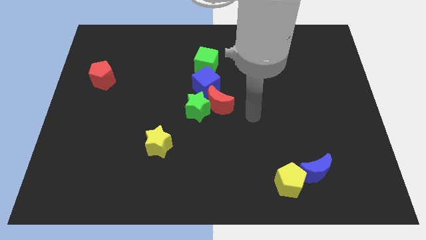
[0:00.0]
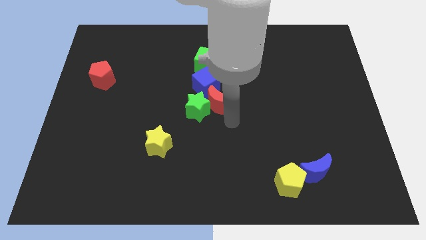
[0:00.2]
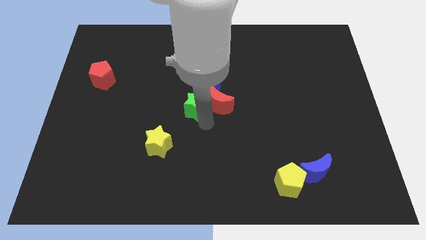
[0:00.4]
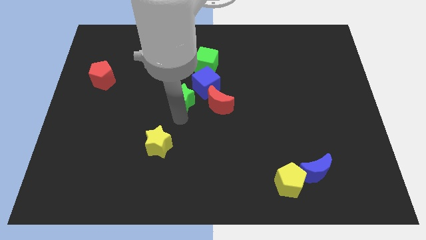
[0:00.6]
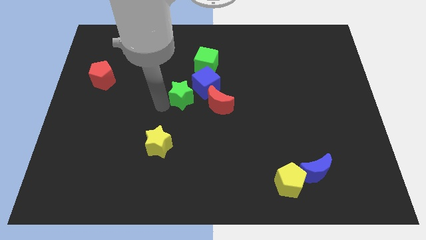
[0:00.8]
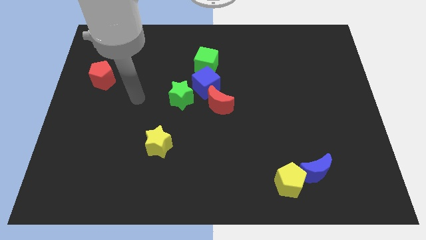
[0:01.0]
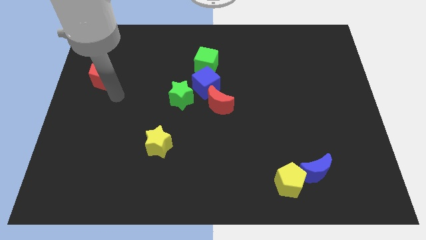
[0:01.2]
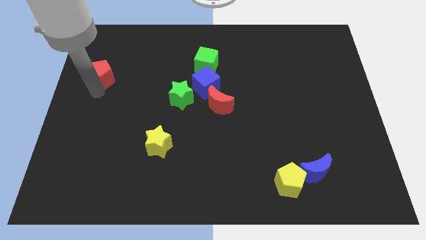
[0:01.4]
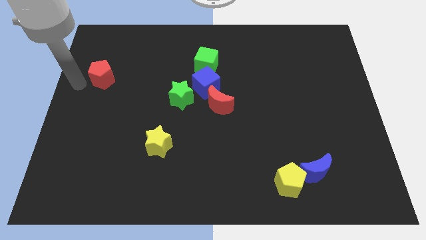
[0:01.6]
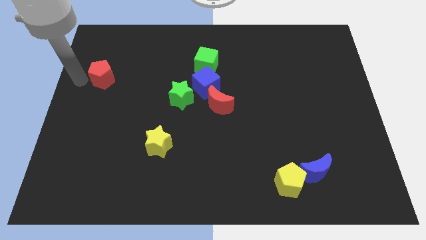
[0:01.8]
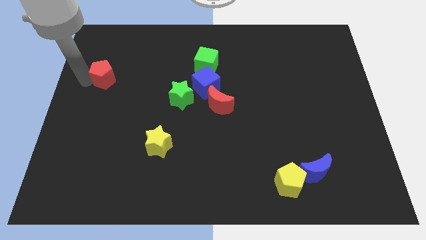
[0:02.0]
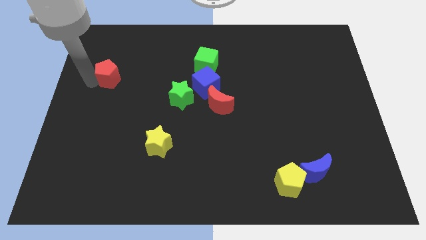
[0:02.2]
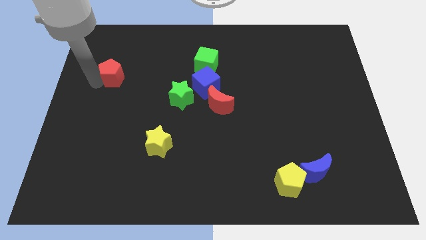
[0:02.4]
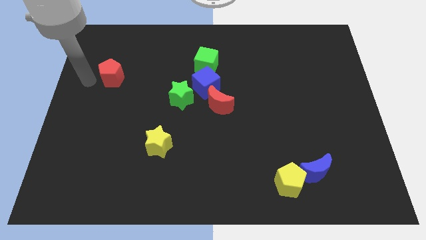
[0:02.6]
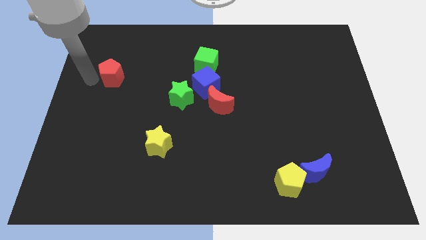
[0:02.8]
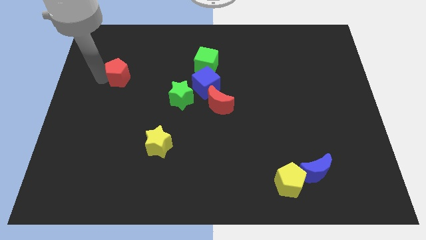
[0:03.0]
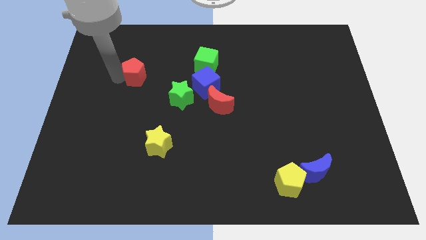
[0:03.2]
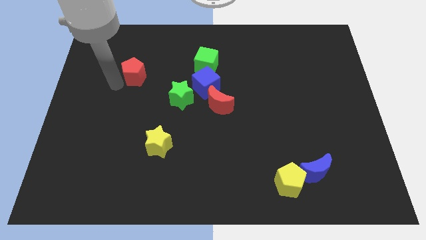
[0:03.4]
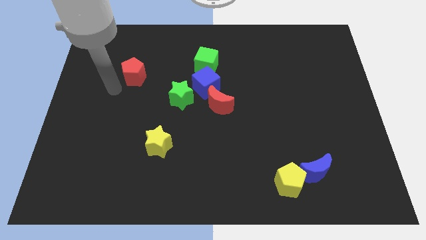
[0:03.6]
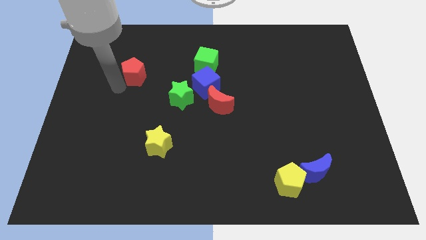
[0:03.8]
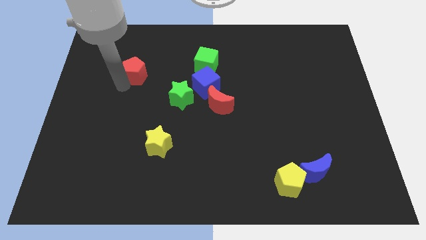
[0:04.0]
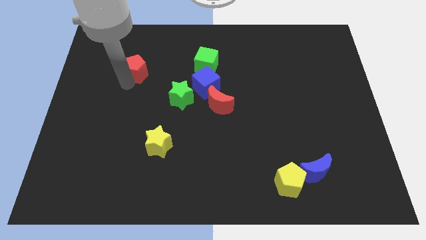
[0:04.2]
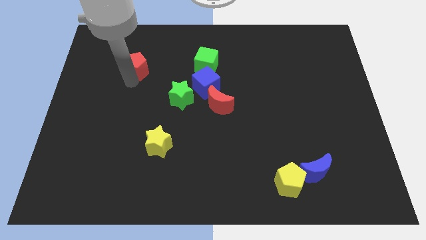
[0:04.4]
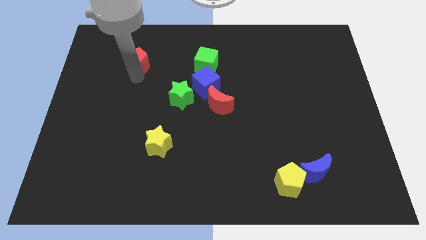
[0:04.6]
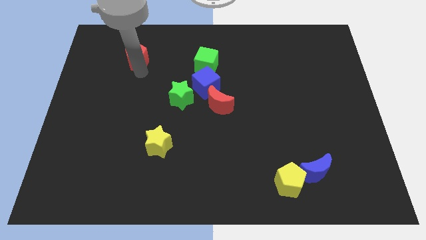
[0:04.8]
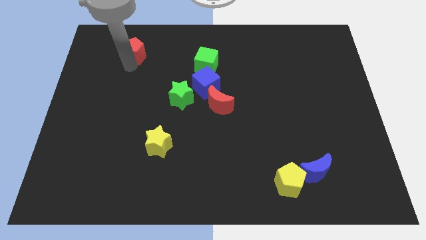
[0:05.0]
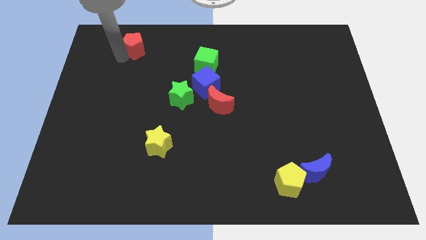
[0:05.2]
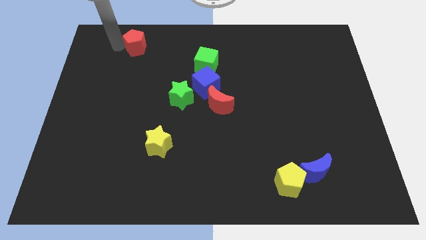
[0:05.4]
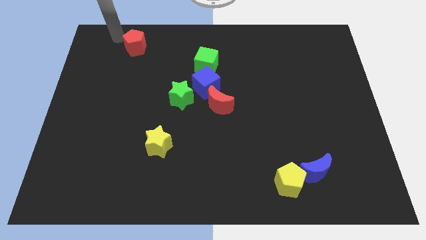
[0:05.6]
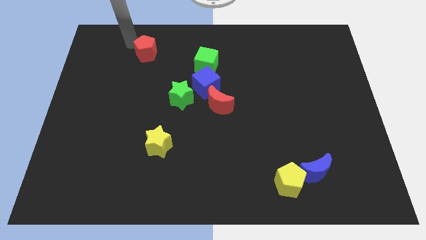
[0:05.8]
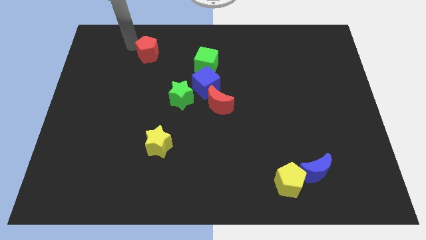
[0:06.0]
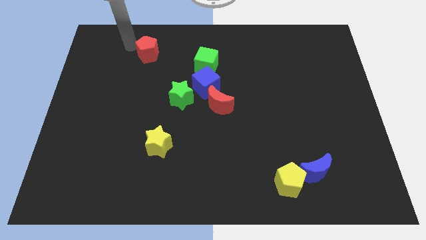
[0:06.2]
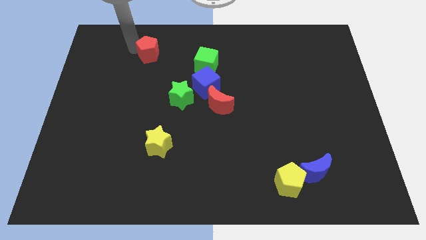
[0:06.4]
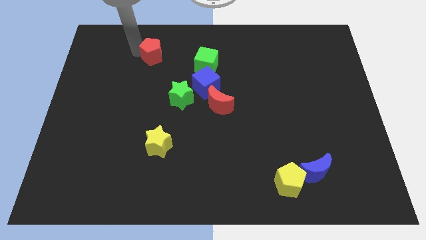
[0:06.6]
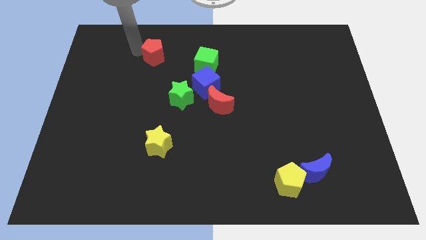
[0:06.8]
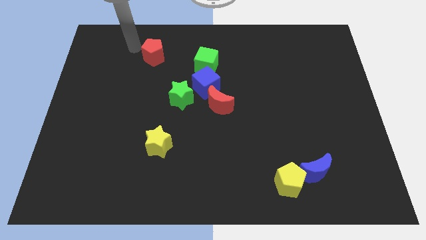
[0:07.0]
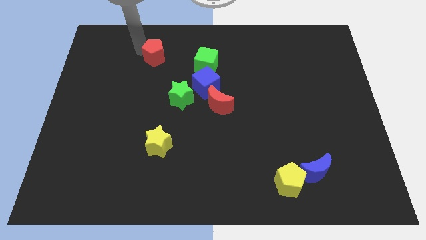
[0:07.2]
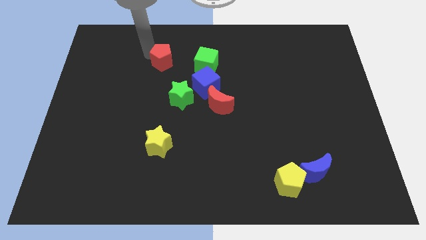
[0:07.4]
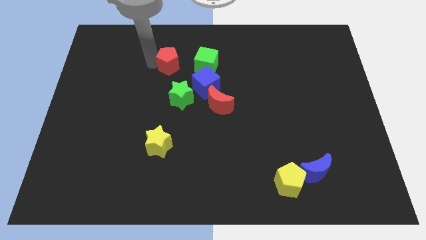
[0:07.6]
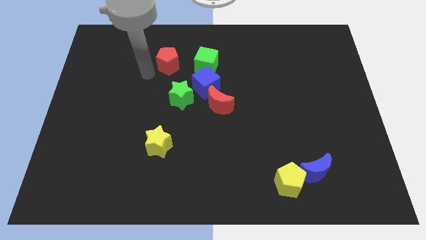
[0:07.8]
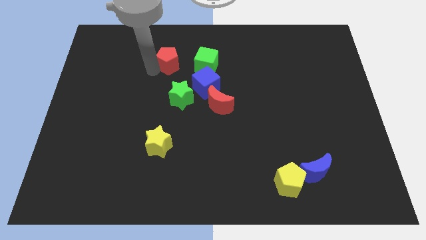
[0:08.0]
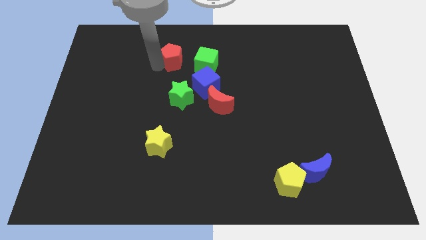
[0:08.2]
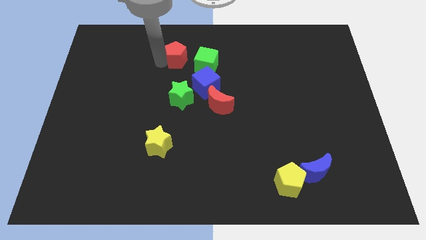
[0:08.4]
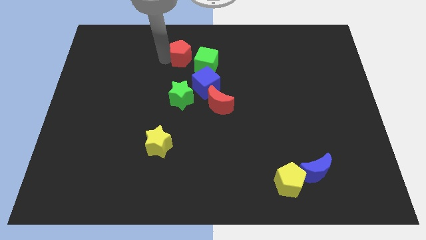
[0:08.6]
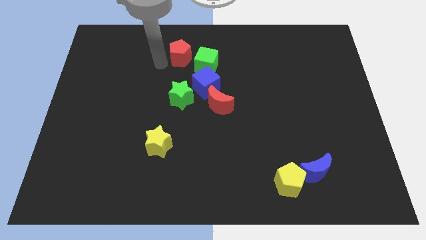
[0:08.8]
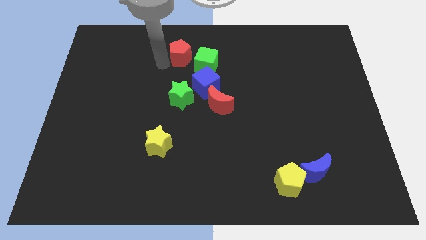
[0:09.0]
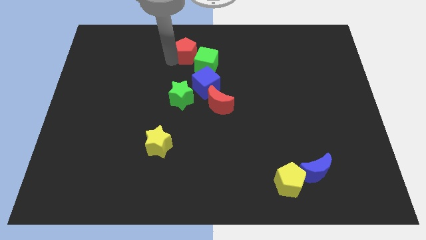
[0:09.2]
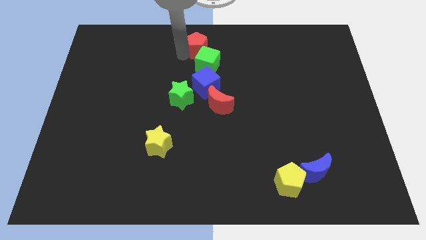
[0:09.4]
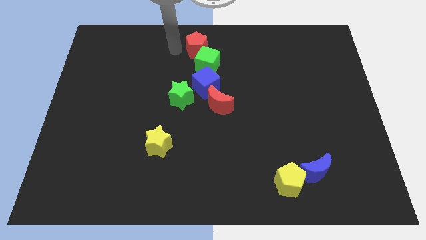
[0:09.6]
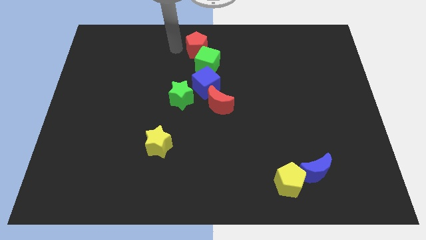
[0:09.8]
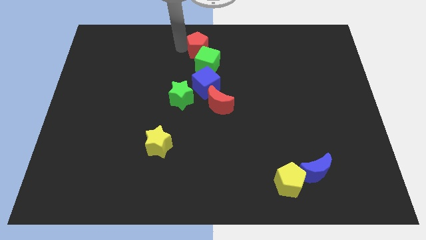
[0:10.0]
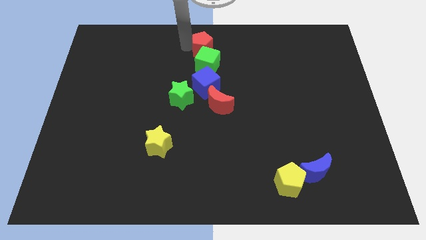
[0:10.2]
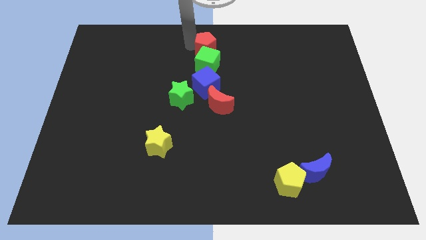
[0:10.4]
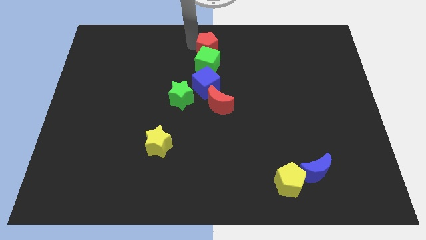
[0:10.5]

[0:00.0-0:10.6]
slide the red pentagon right

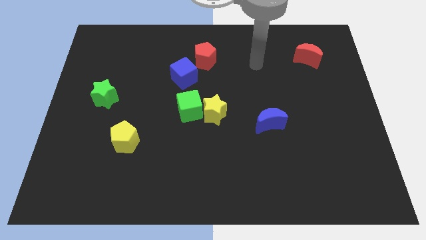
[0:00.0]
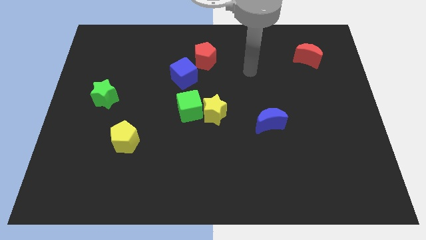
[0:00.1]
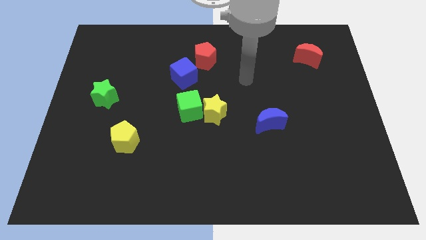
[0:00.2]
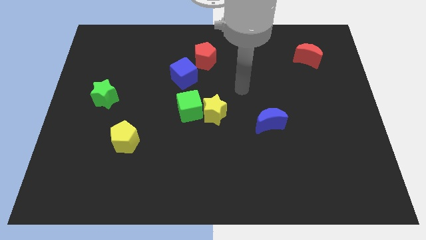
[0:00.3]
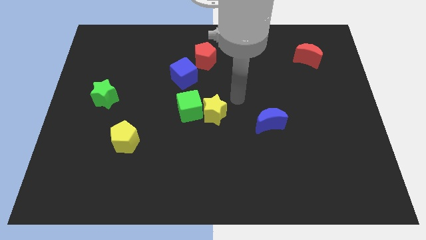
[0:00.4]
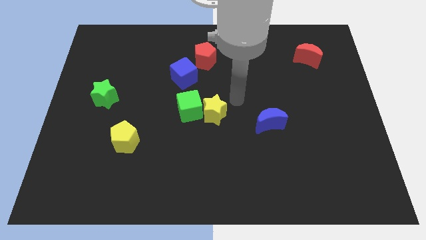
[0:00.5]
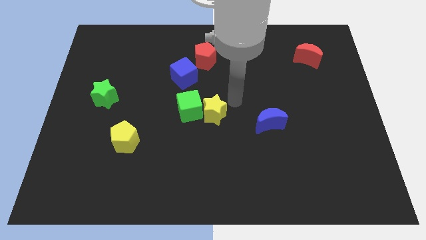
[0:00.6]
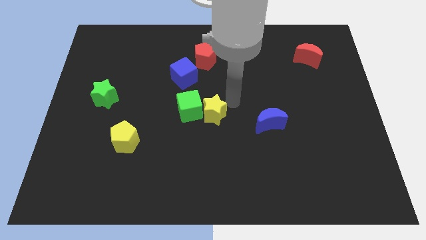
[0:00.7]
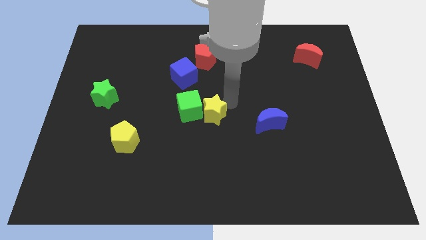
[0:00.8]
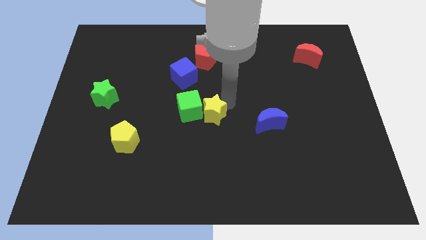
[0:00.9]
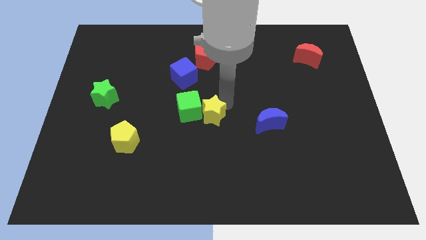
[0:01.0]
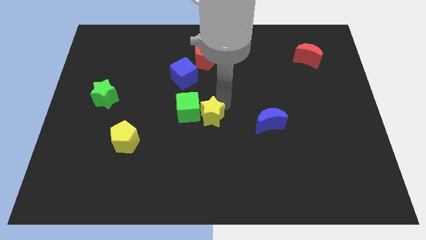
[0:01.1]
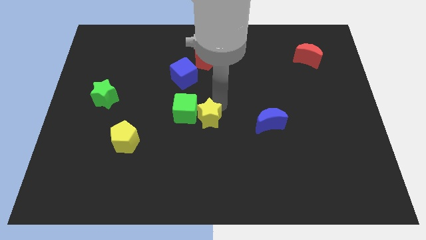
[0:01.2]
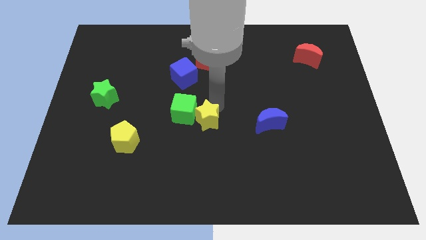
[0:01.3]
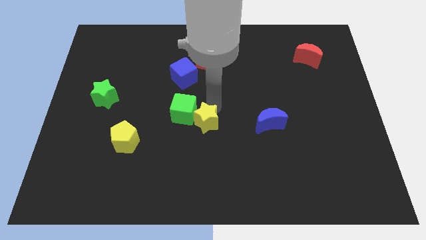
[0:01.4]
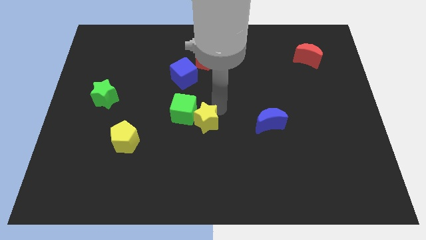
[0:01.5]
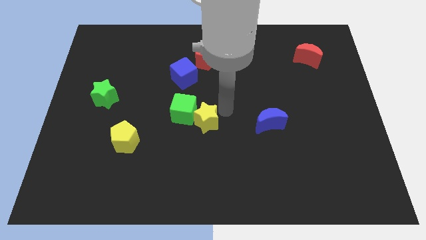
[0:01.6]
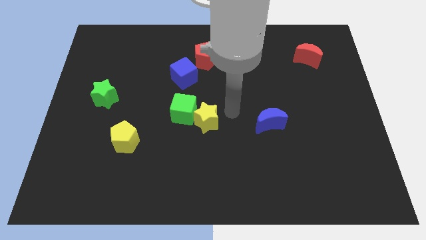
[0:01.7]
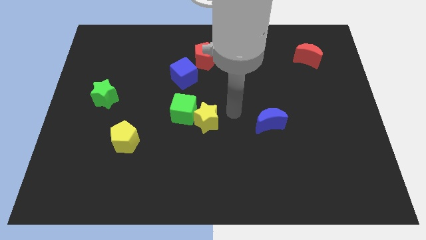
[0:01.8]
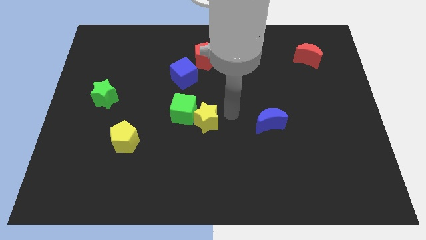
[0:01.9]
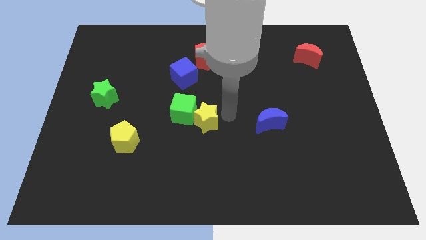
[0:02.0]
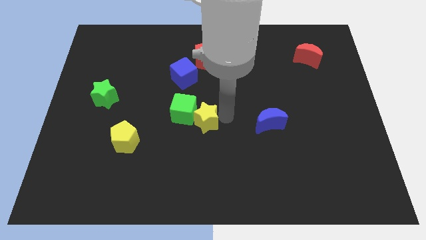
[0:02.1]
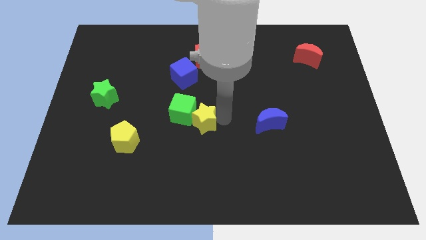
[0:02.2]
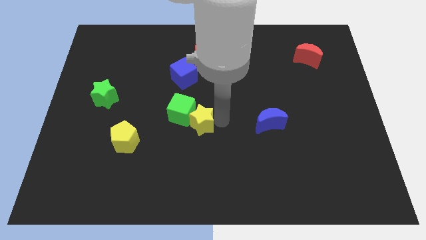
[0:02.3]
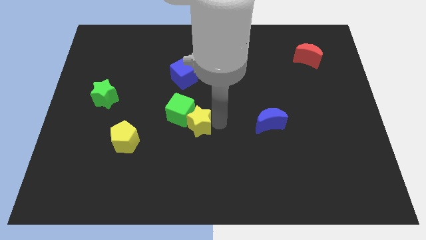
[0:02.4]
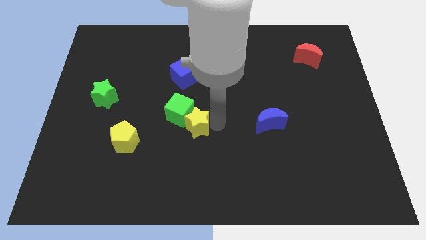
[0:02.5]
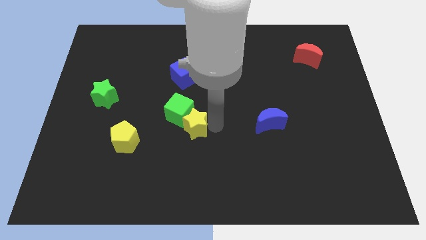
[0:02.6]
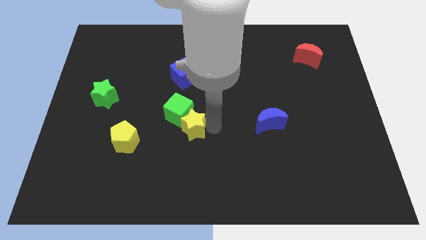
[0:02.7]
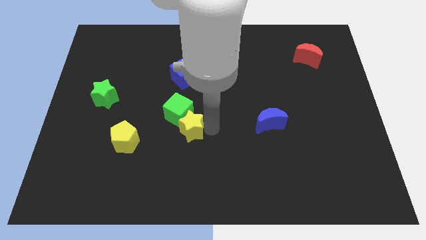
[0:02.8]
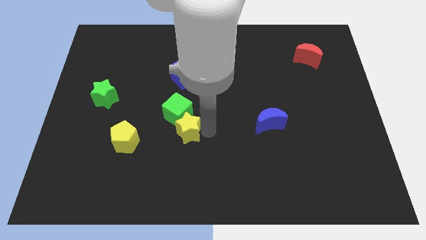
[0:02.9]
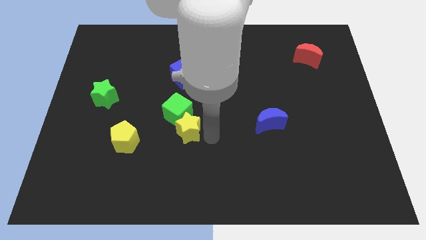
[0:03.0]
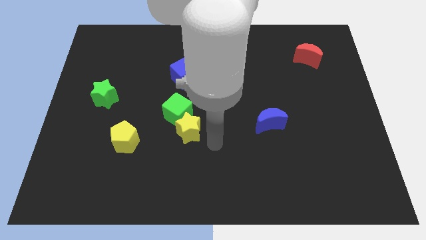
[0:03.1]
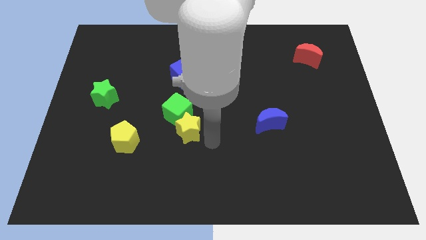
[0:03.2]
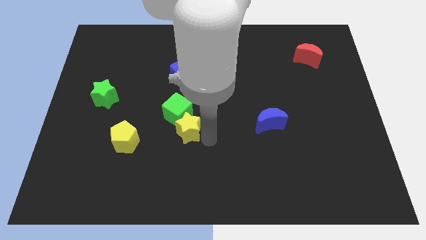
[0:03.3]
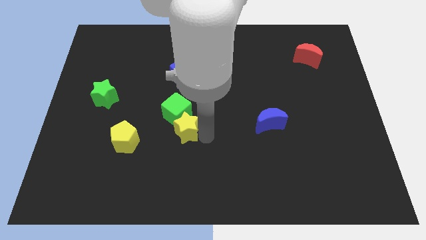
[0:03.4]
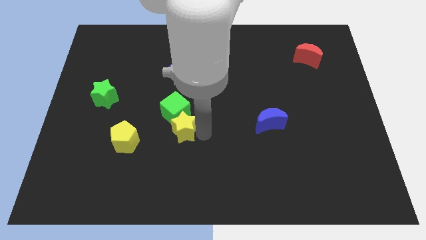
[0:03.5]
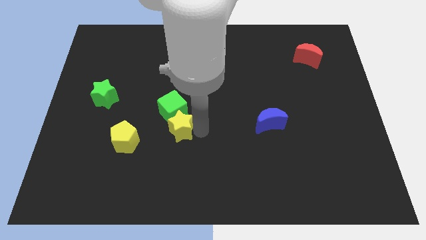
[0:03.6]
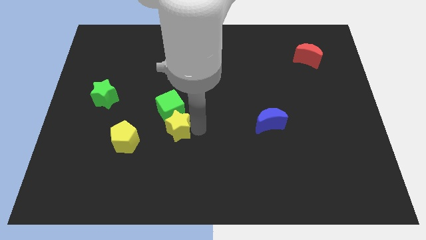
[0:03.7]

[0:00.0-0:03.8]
slide the yellow star a little bit to the left
